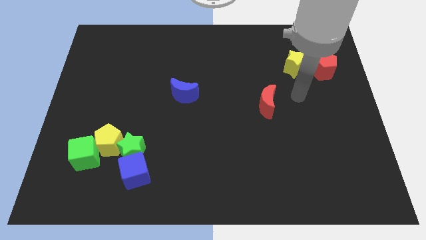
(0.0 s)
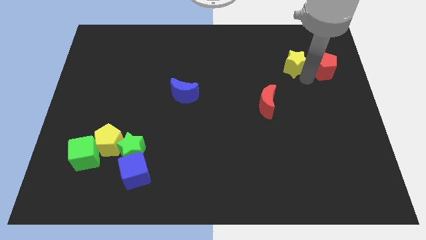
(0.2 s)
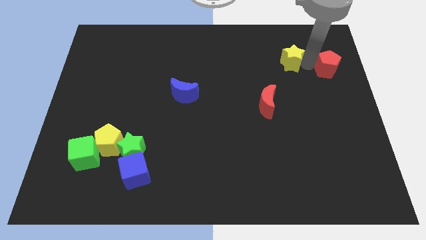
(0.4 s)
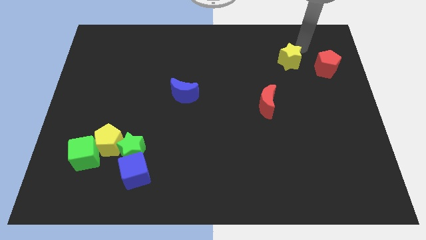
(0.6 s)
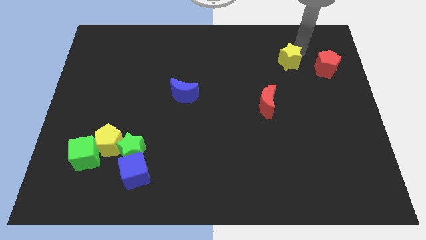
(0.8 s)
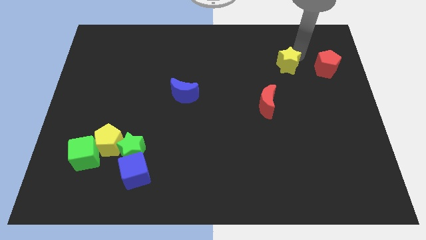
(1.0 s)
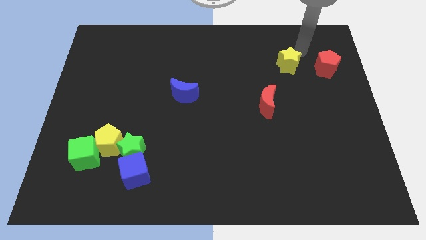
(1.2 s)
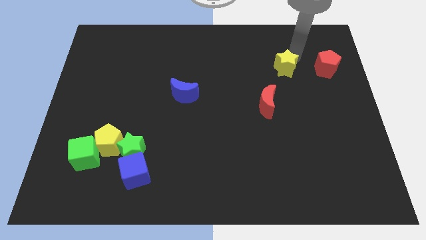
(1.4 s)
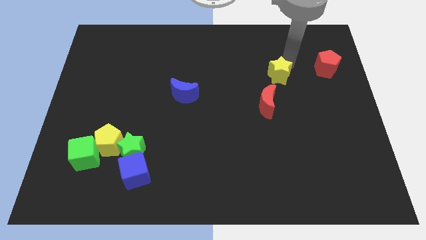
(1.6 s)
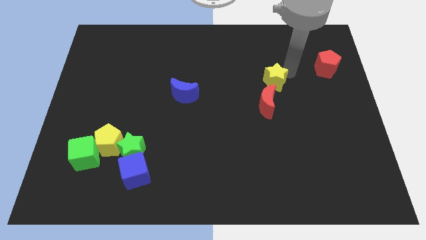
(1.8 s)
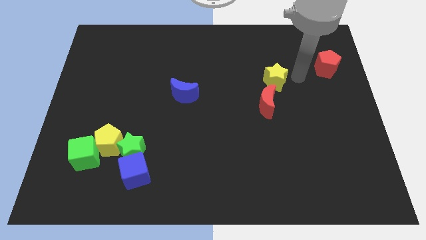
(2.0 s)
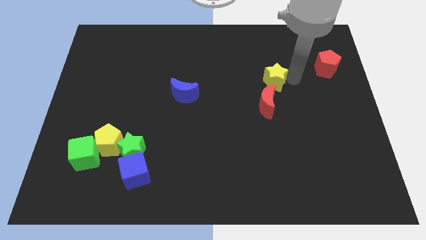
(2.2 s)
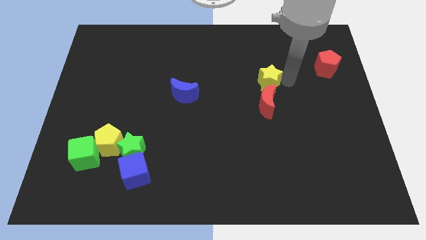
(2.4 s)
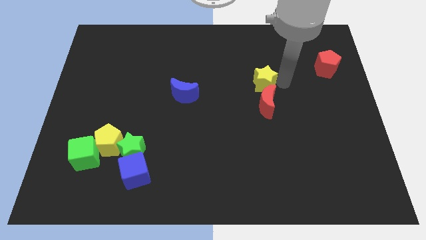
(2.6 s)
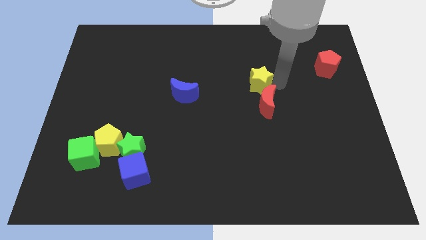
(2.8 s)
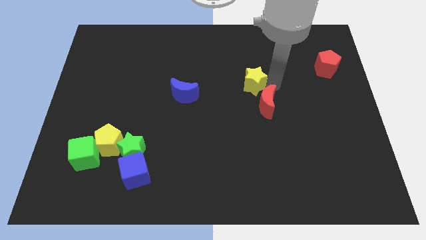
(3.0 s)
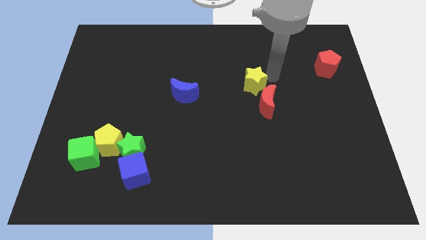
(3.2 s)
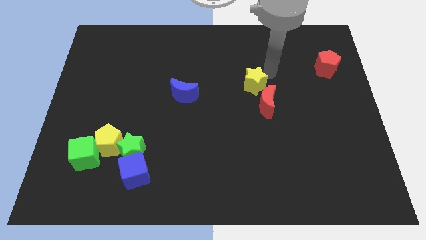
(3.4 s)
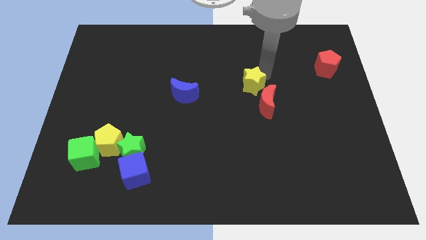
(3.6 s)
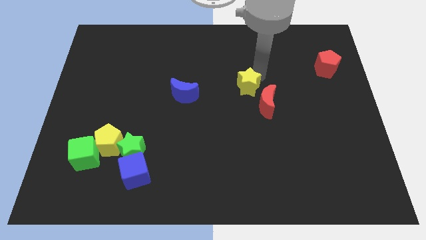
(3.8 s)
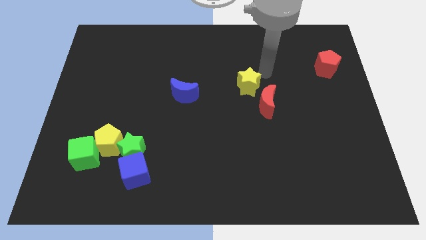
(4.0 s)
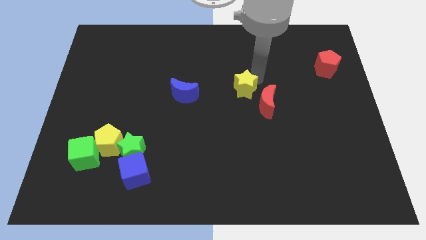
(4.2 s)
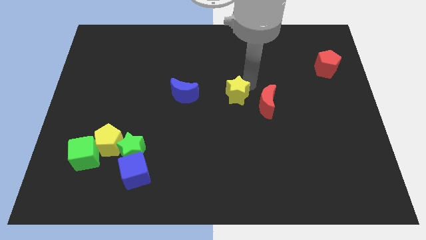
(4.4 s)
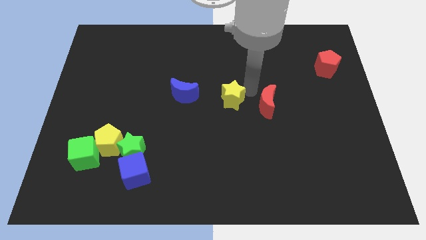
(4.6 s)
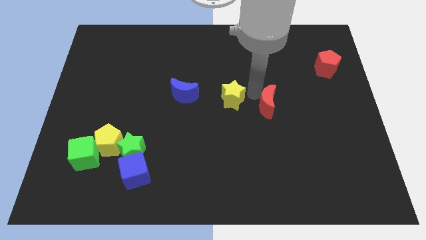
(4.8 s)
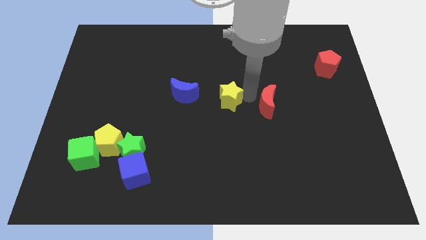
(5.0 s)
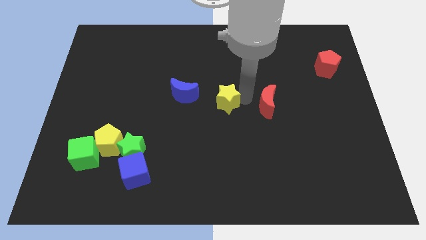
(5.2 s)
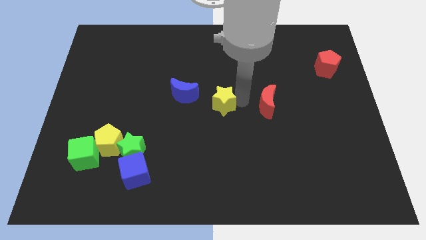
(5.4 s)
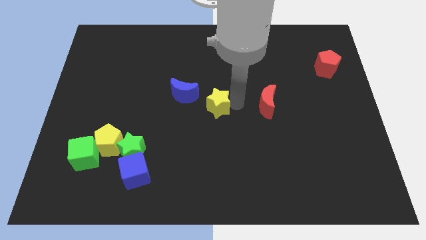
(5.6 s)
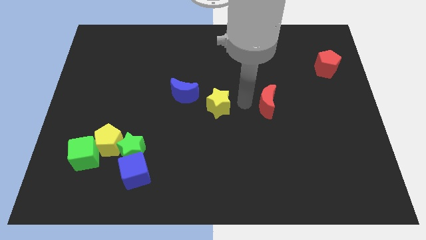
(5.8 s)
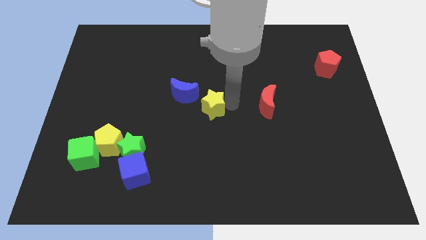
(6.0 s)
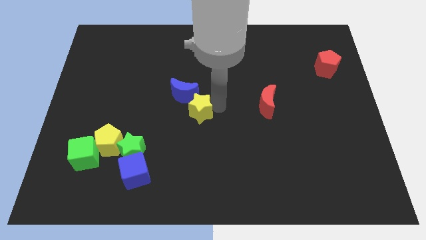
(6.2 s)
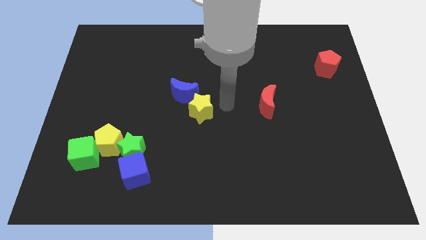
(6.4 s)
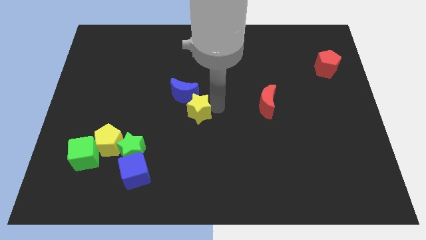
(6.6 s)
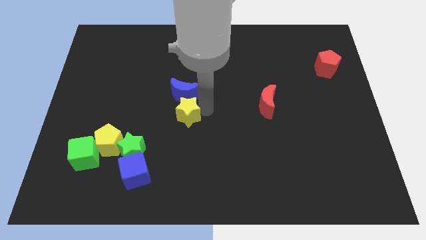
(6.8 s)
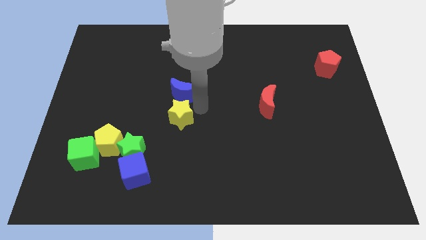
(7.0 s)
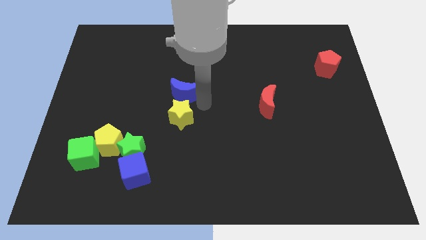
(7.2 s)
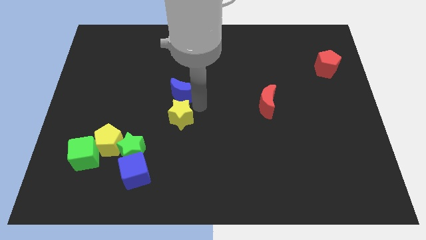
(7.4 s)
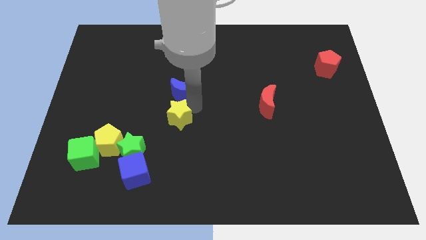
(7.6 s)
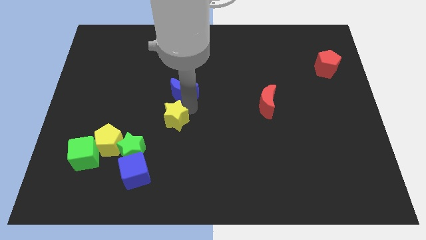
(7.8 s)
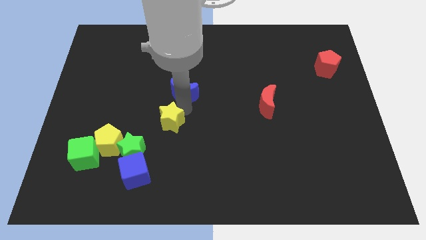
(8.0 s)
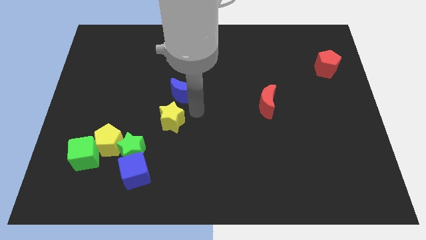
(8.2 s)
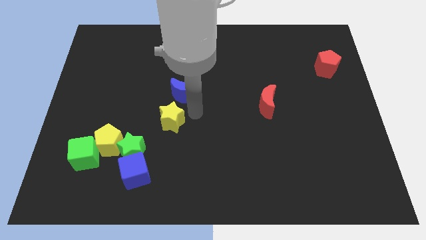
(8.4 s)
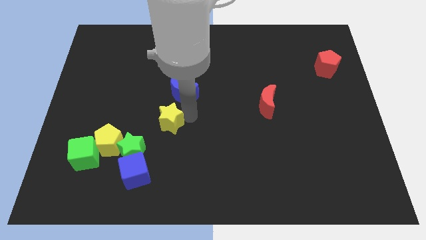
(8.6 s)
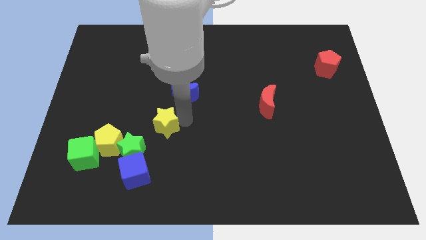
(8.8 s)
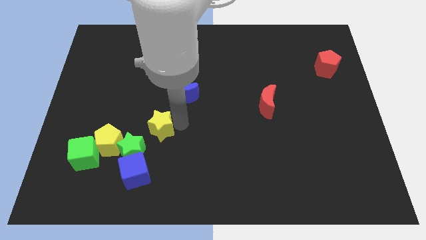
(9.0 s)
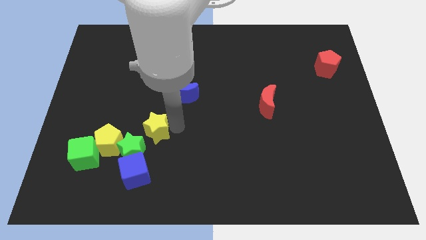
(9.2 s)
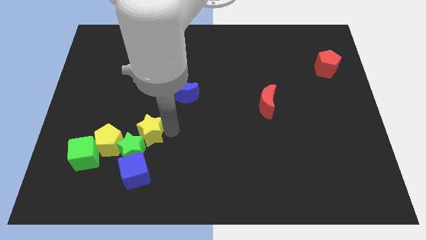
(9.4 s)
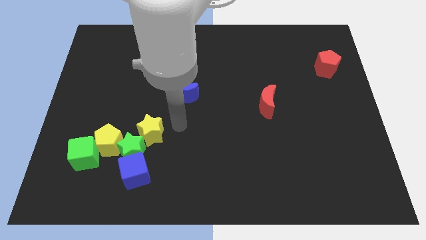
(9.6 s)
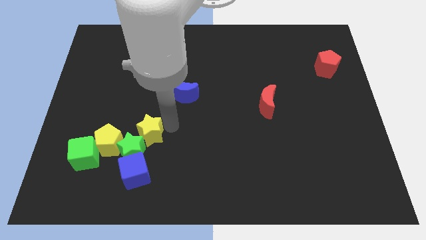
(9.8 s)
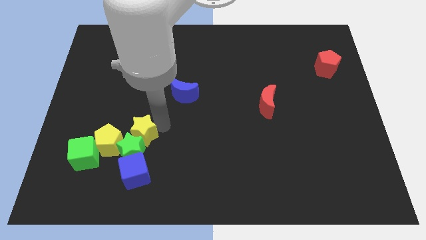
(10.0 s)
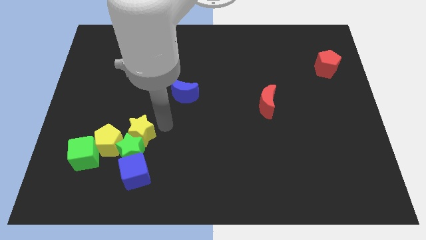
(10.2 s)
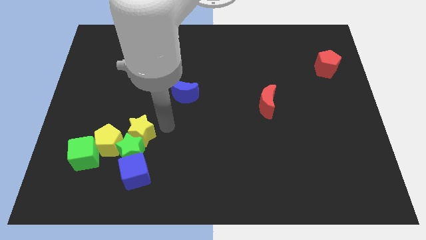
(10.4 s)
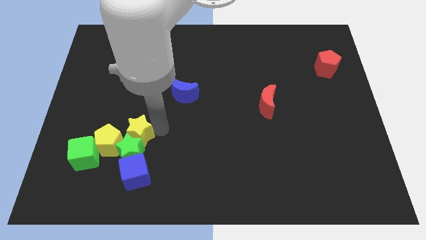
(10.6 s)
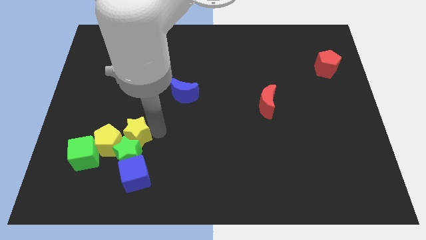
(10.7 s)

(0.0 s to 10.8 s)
put the yellow star close to the yellow pentagon

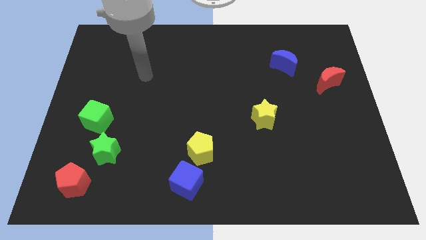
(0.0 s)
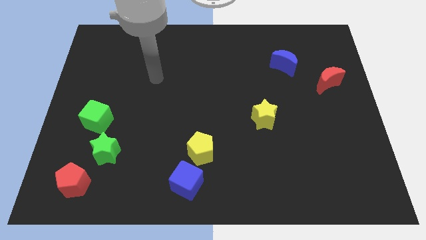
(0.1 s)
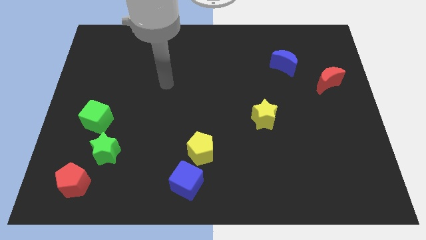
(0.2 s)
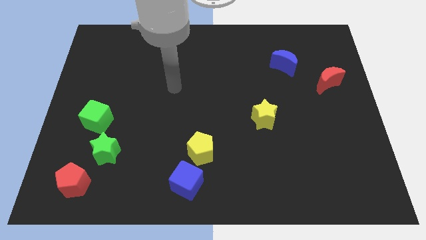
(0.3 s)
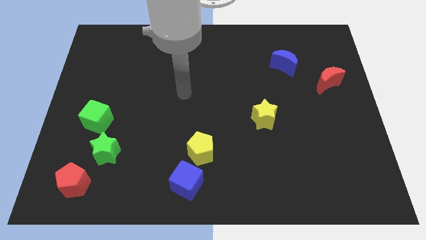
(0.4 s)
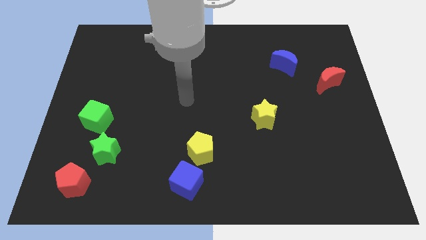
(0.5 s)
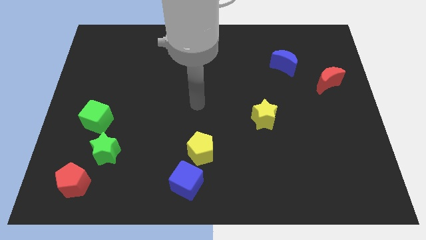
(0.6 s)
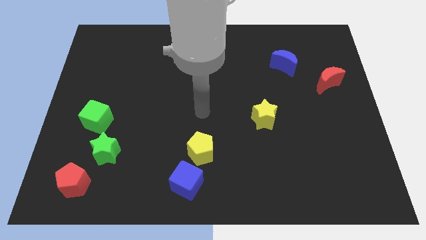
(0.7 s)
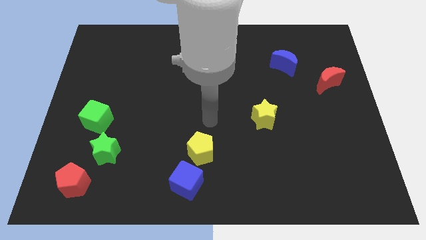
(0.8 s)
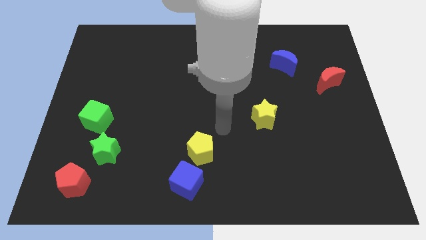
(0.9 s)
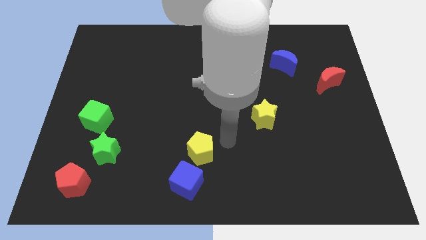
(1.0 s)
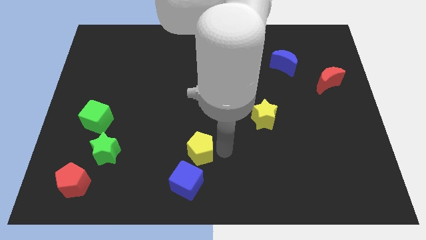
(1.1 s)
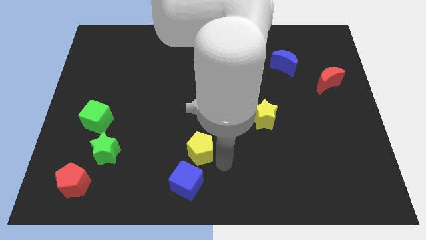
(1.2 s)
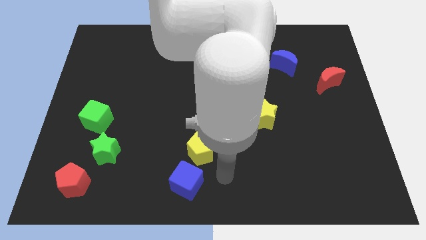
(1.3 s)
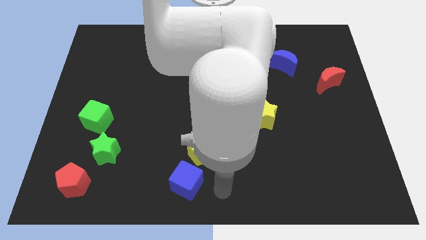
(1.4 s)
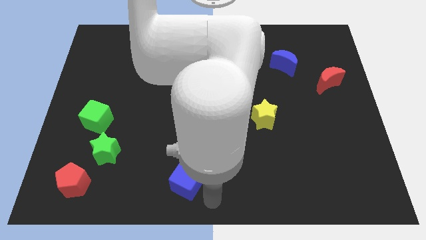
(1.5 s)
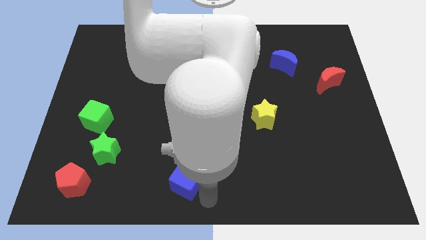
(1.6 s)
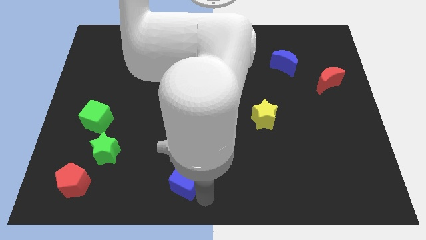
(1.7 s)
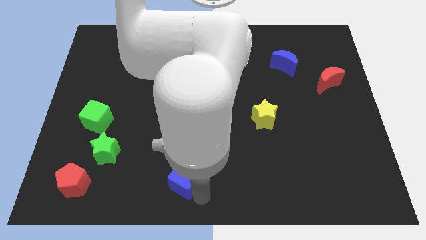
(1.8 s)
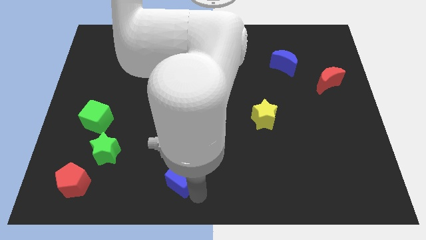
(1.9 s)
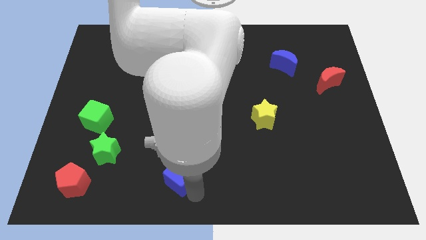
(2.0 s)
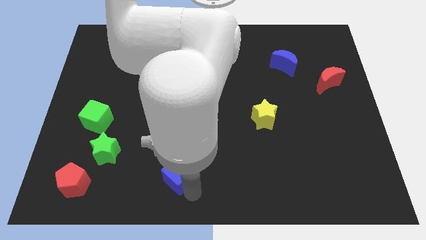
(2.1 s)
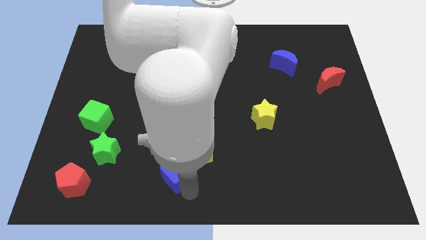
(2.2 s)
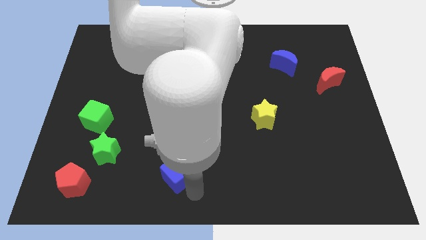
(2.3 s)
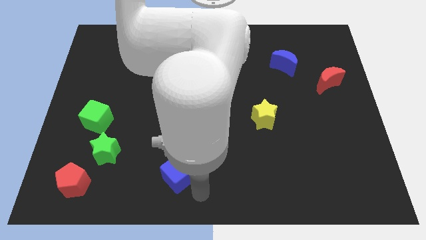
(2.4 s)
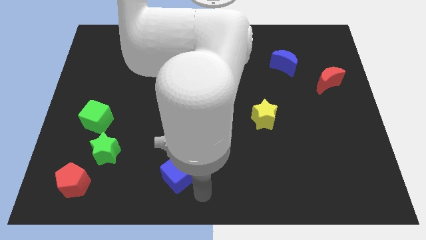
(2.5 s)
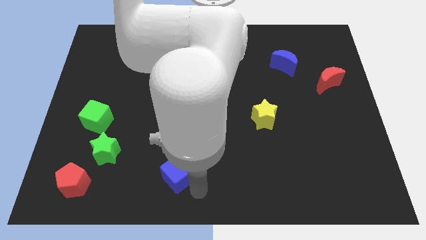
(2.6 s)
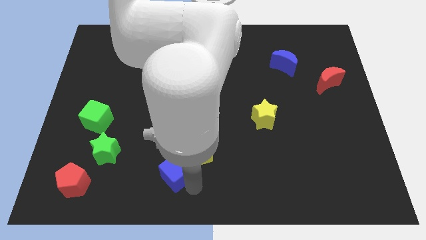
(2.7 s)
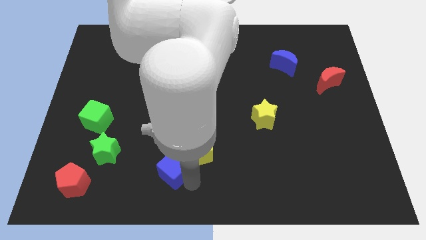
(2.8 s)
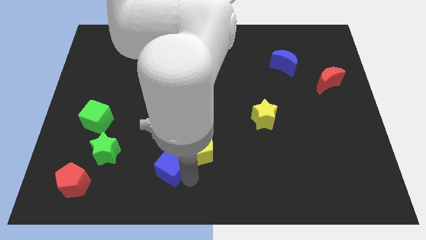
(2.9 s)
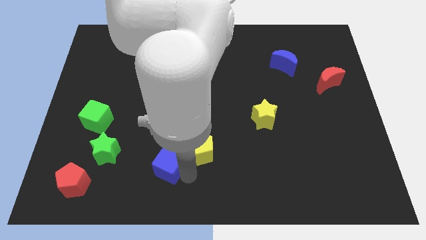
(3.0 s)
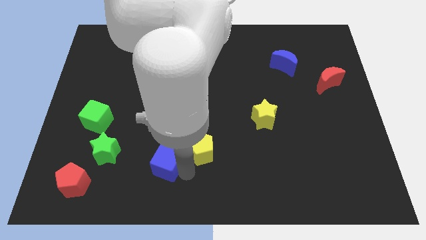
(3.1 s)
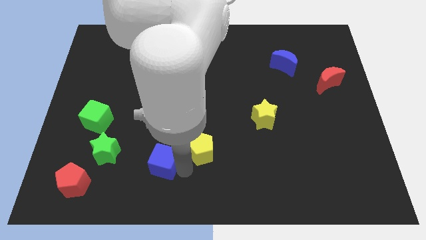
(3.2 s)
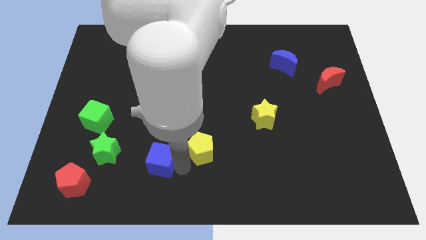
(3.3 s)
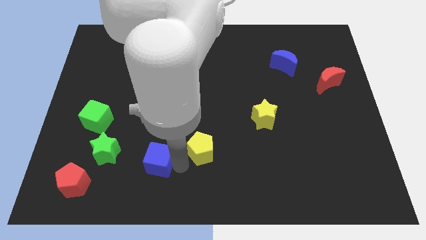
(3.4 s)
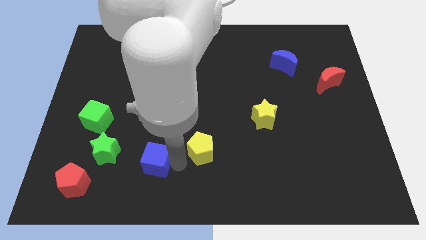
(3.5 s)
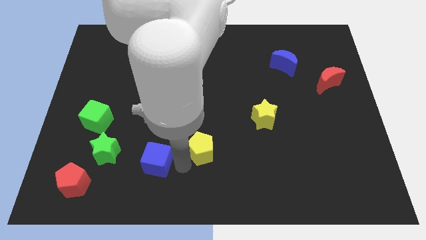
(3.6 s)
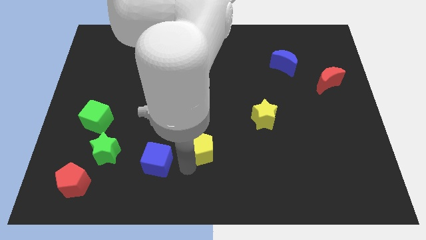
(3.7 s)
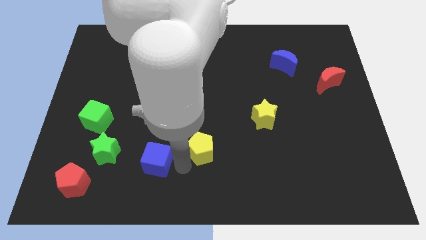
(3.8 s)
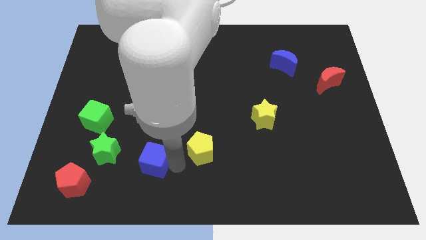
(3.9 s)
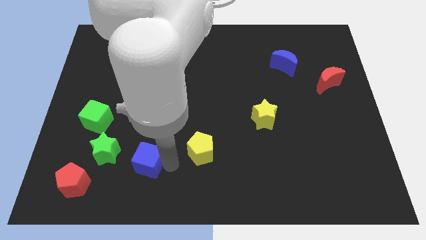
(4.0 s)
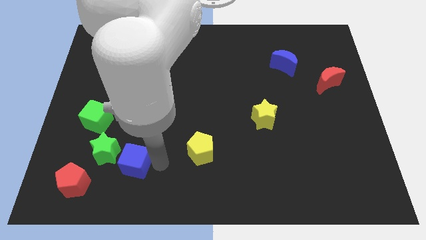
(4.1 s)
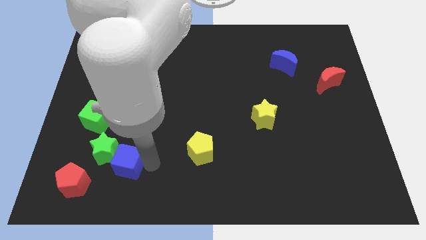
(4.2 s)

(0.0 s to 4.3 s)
put the blue cube to the green star
